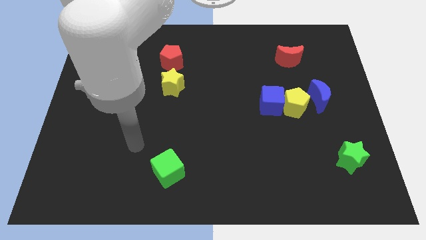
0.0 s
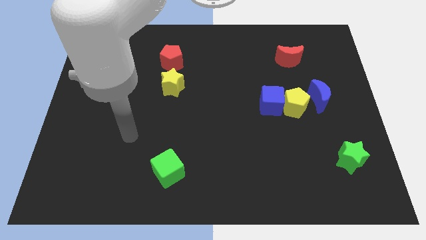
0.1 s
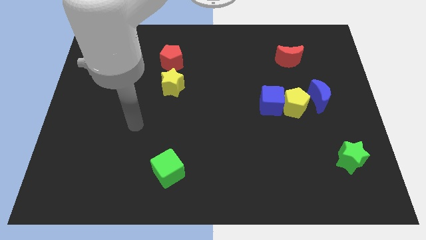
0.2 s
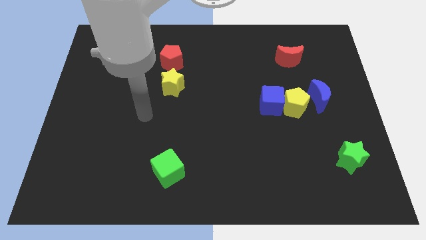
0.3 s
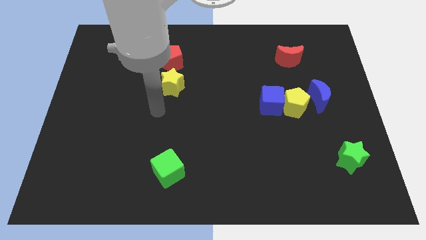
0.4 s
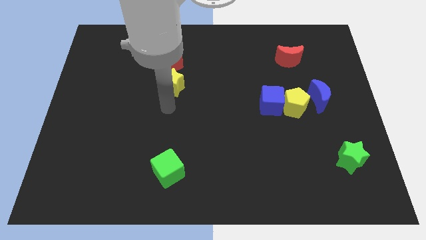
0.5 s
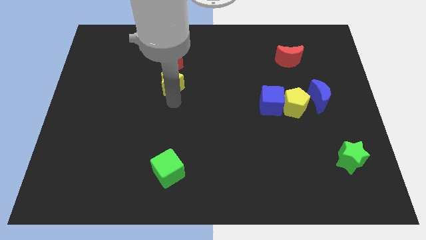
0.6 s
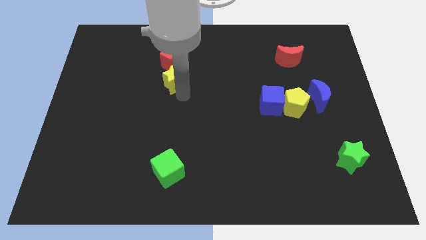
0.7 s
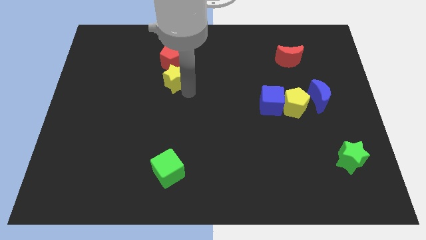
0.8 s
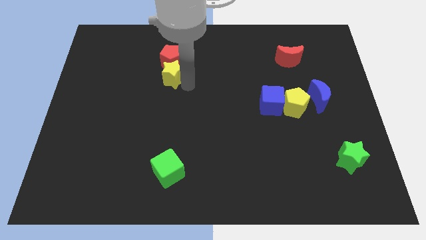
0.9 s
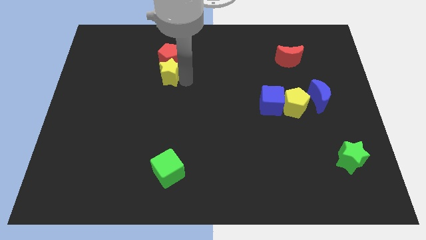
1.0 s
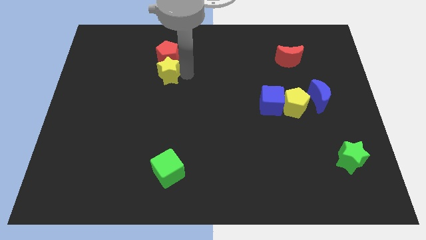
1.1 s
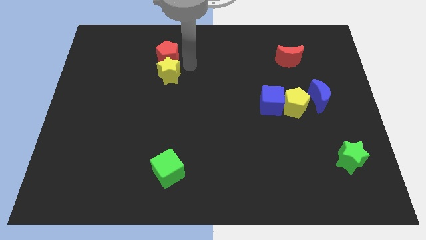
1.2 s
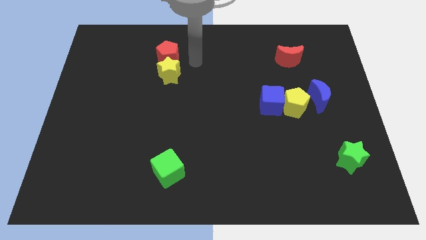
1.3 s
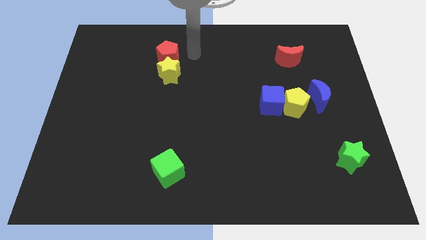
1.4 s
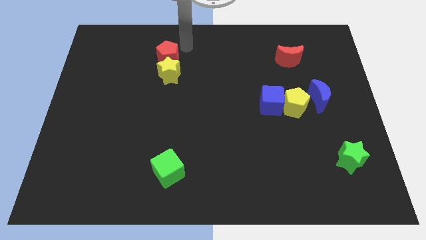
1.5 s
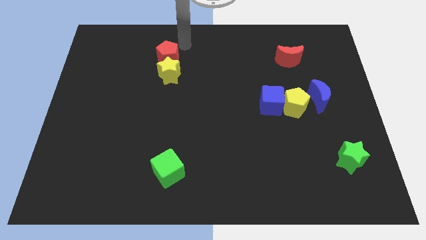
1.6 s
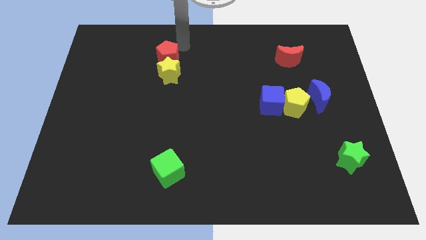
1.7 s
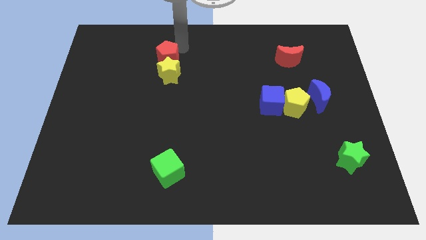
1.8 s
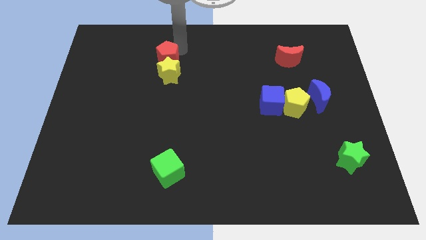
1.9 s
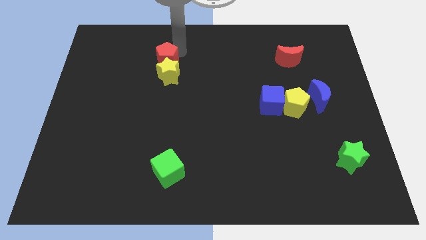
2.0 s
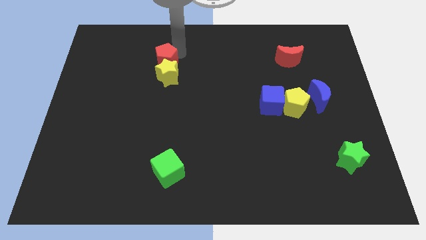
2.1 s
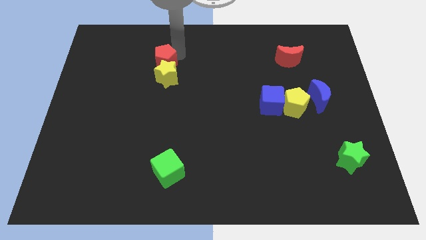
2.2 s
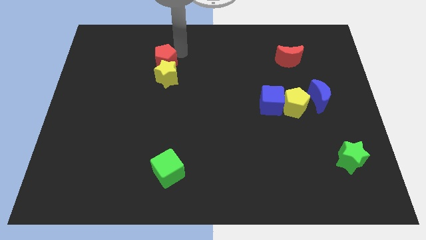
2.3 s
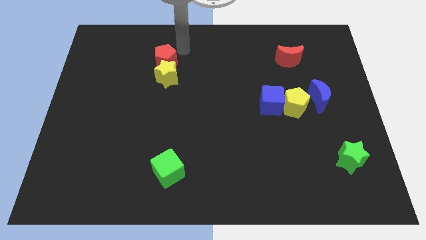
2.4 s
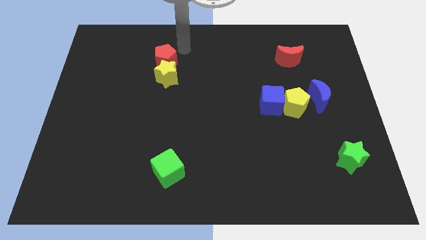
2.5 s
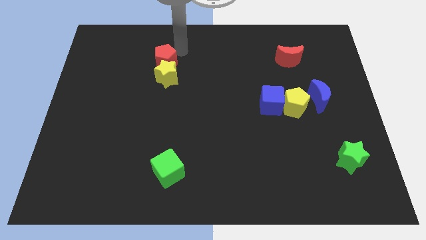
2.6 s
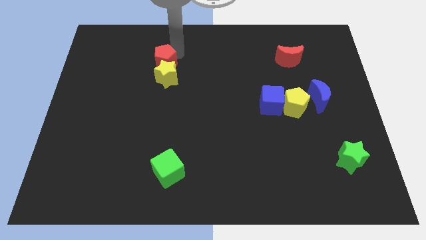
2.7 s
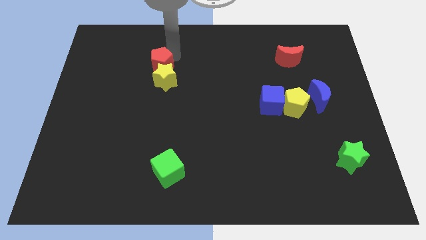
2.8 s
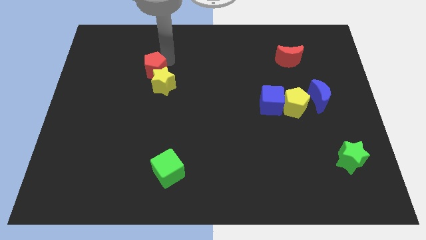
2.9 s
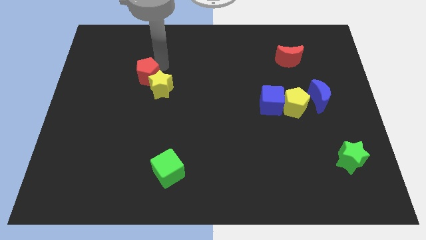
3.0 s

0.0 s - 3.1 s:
slightly slide the red pentagon diagonally down and to the left

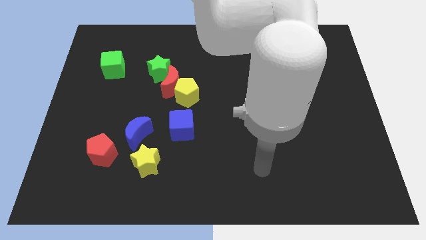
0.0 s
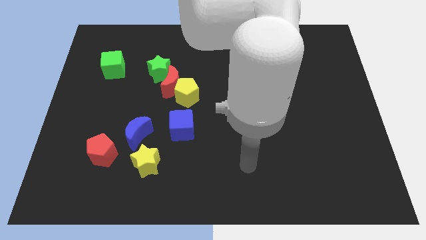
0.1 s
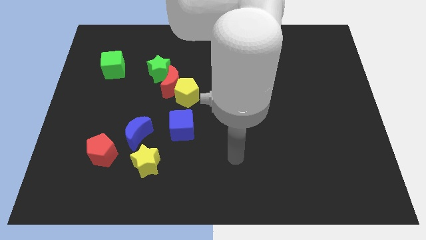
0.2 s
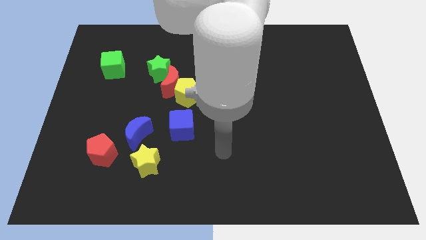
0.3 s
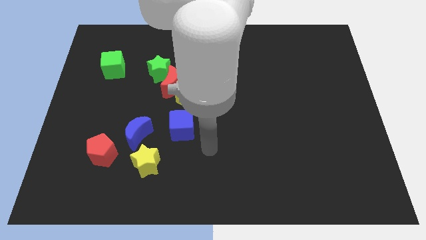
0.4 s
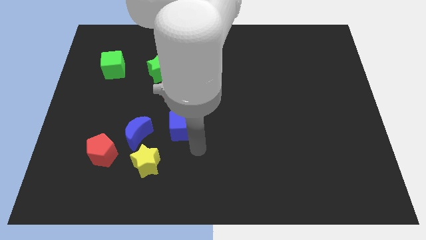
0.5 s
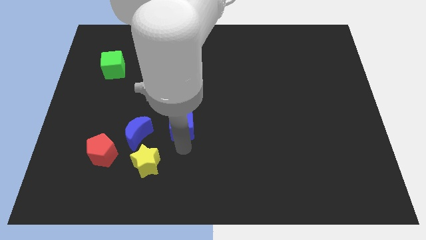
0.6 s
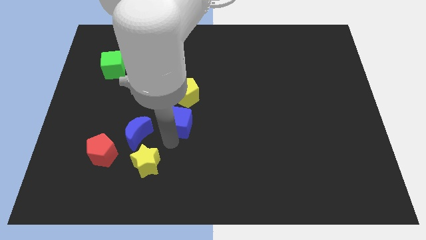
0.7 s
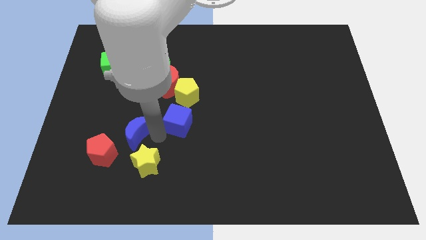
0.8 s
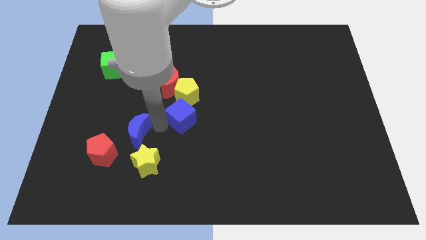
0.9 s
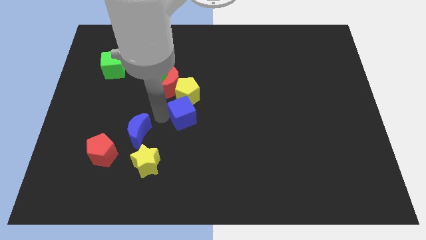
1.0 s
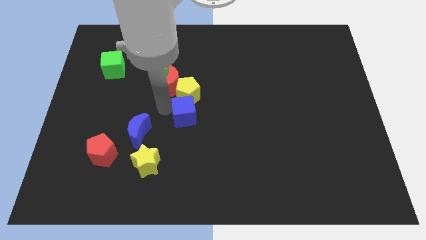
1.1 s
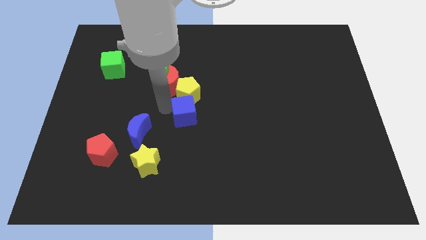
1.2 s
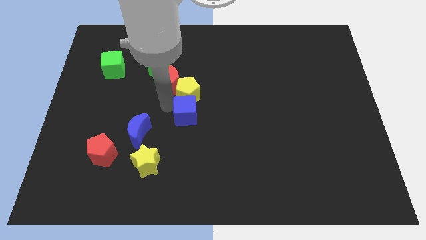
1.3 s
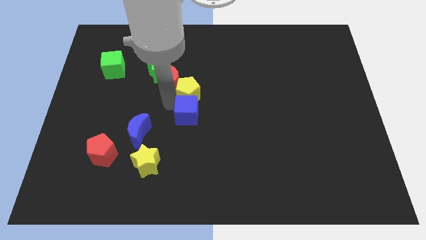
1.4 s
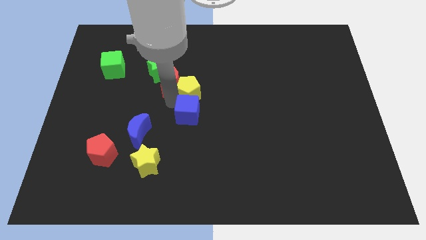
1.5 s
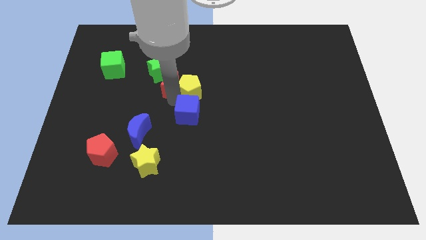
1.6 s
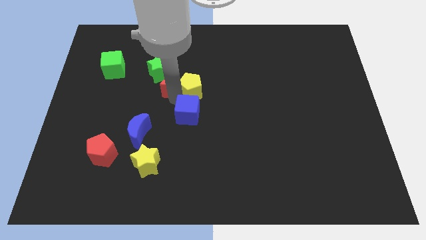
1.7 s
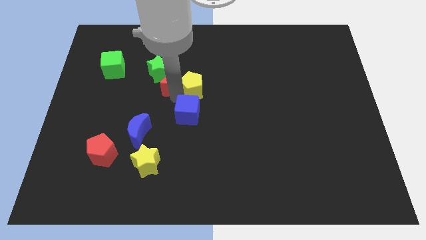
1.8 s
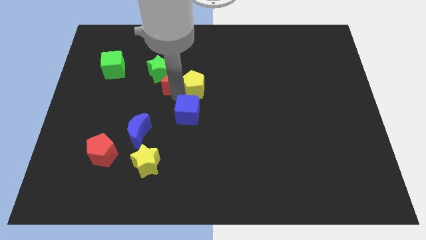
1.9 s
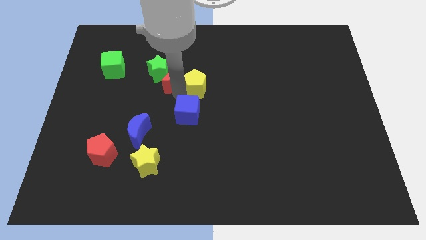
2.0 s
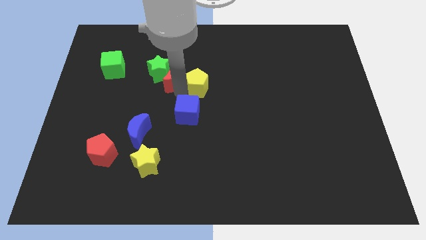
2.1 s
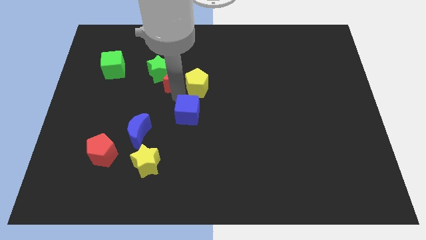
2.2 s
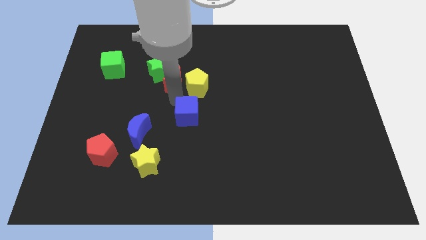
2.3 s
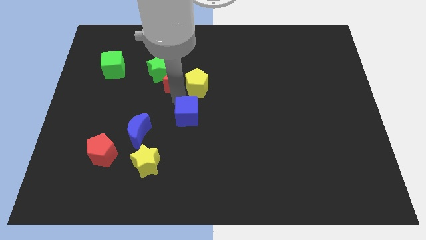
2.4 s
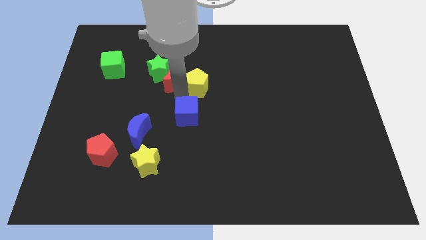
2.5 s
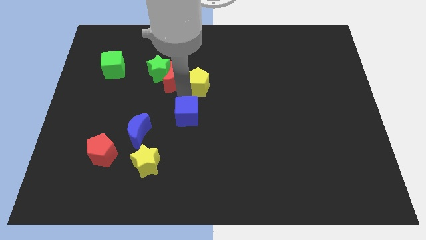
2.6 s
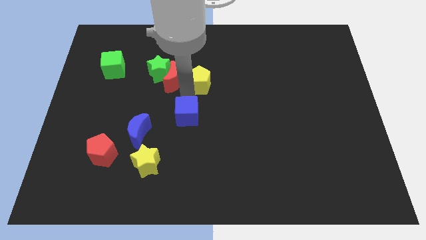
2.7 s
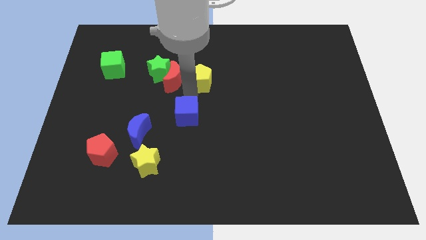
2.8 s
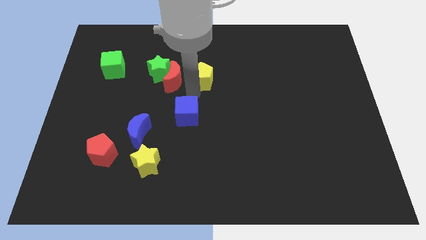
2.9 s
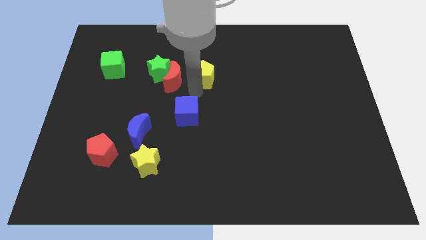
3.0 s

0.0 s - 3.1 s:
push the yellow pentagon up and to the right diagonally a little bit

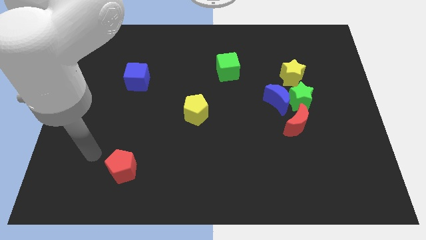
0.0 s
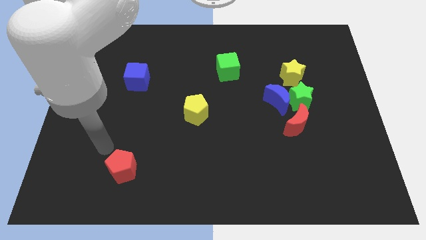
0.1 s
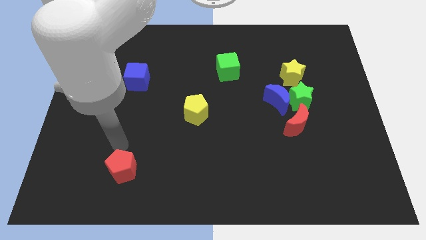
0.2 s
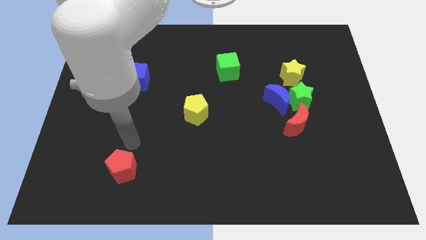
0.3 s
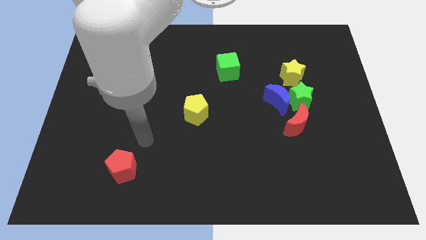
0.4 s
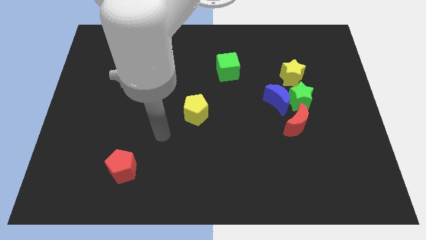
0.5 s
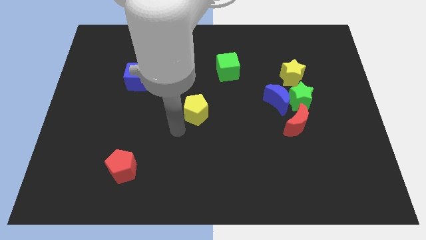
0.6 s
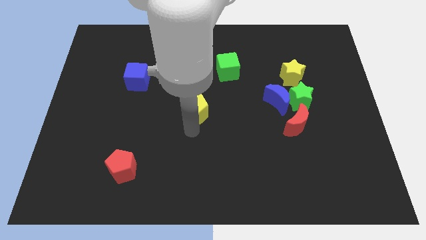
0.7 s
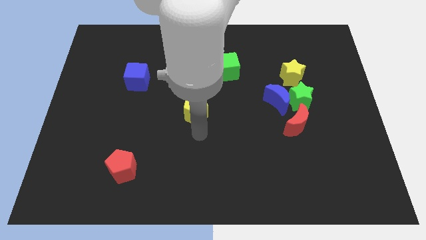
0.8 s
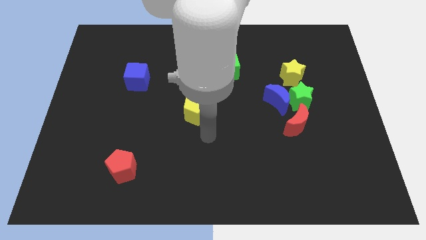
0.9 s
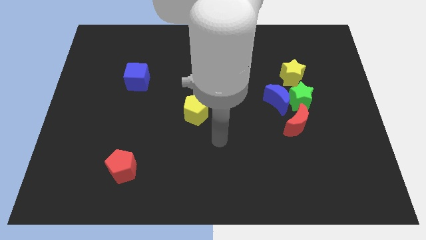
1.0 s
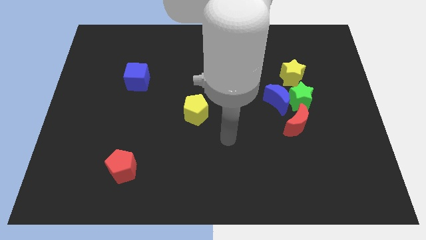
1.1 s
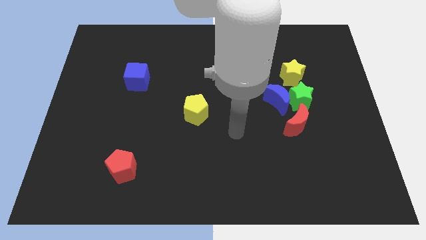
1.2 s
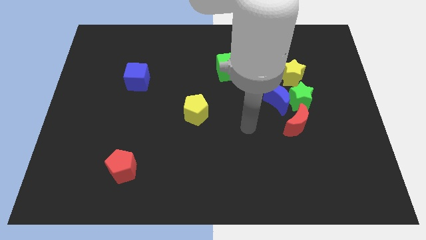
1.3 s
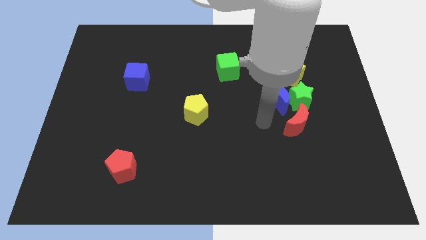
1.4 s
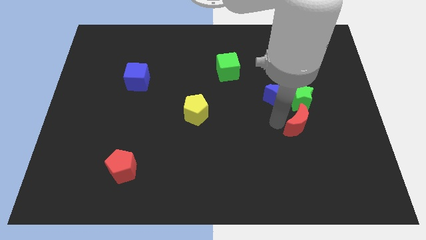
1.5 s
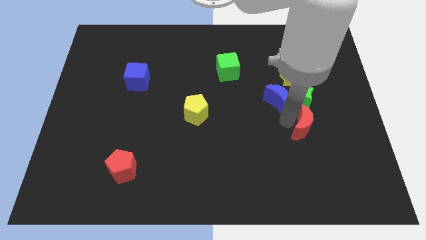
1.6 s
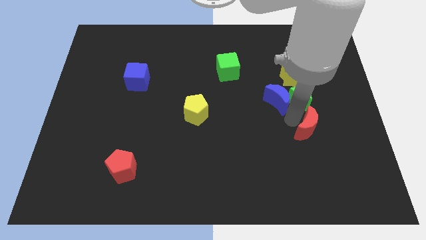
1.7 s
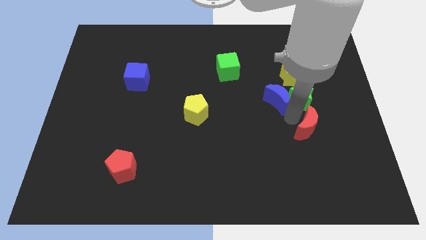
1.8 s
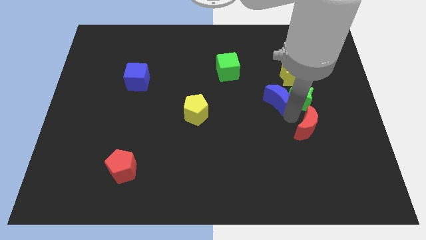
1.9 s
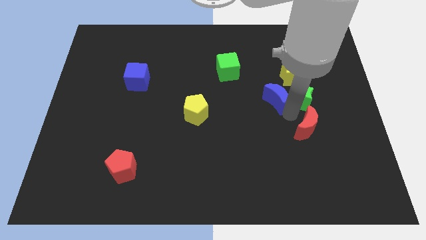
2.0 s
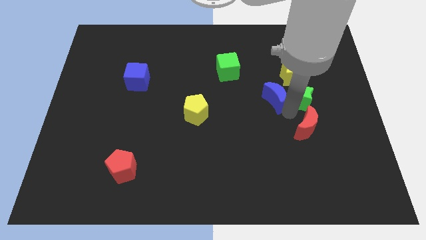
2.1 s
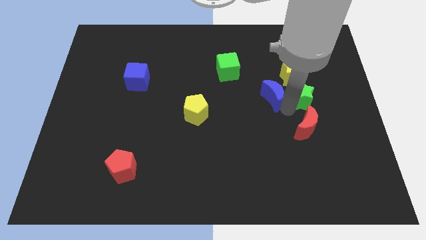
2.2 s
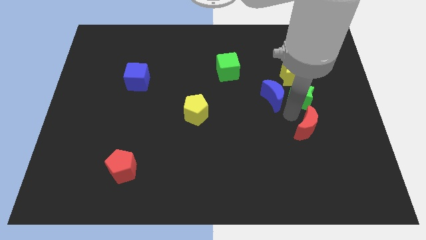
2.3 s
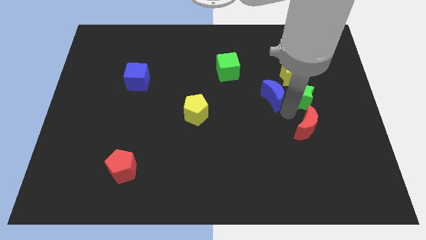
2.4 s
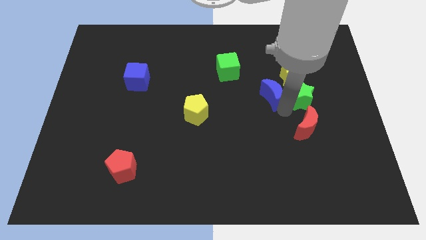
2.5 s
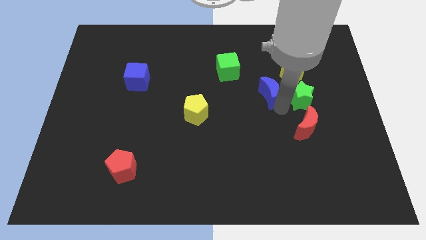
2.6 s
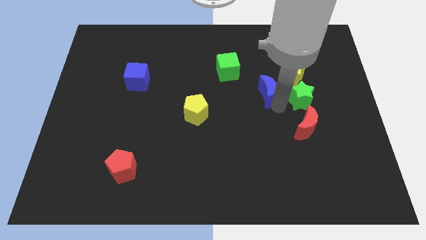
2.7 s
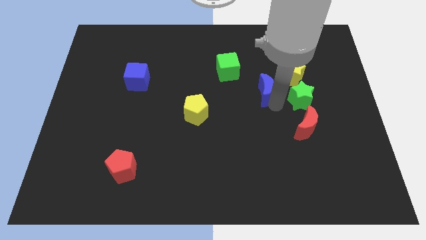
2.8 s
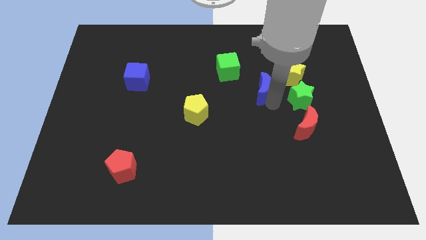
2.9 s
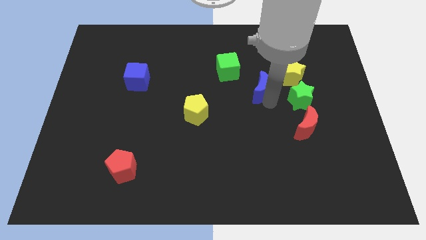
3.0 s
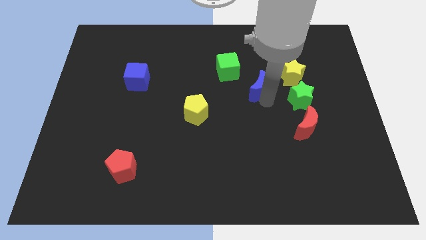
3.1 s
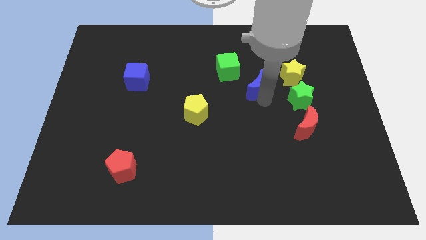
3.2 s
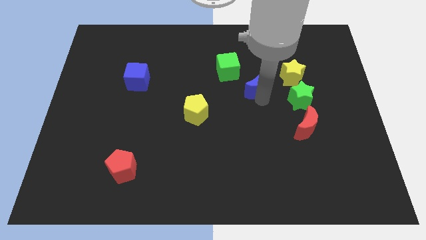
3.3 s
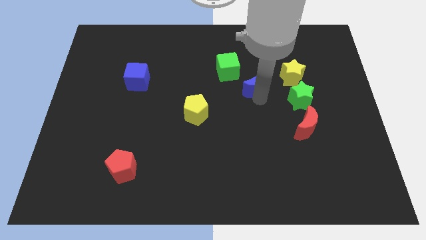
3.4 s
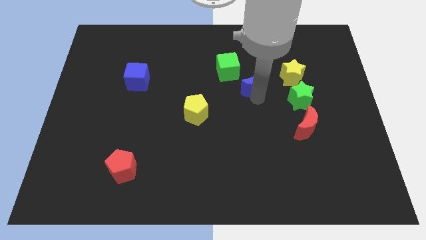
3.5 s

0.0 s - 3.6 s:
move the blue moon up and left diagonally a little
